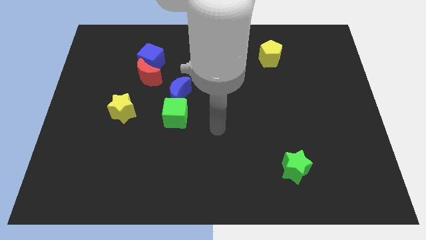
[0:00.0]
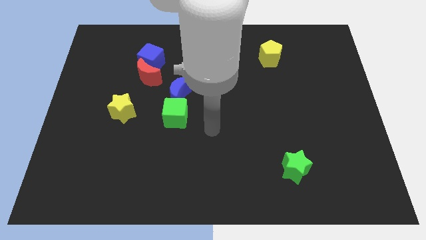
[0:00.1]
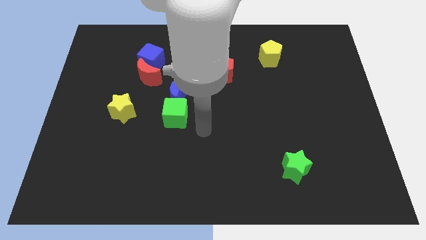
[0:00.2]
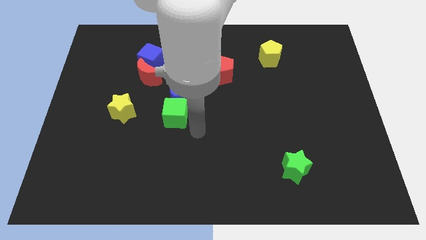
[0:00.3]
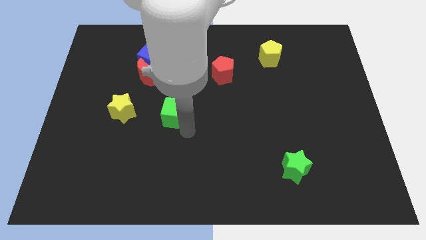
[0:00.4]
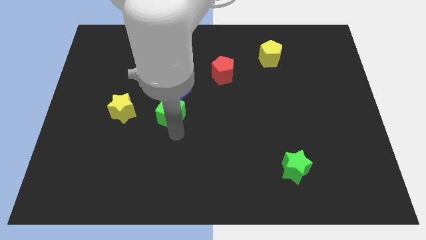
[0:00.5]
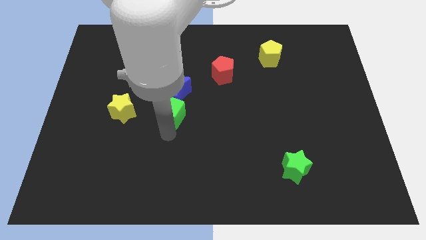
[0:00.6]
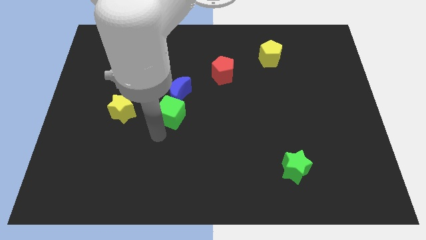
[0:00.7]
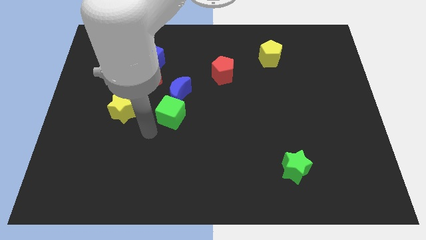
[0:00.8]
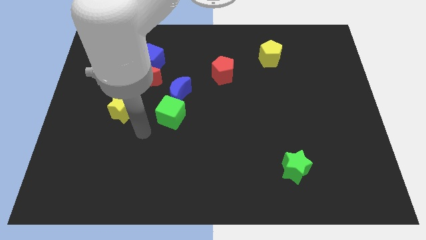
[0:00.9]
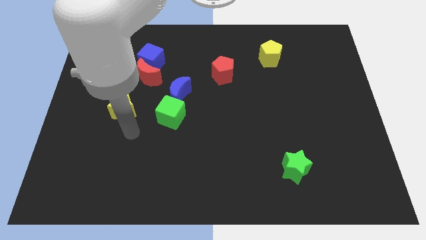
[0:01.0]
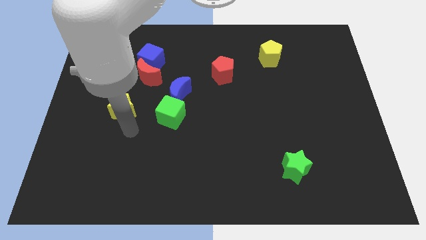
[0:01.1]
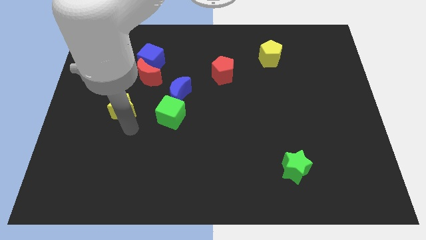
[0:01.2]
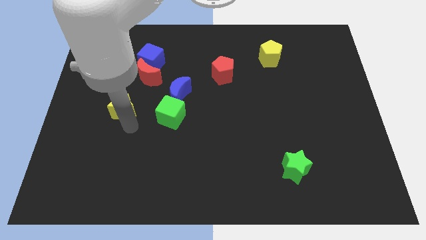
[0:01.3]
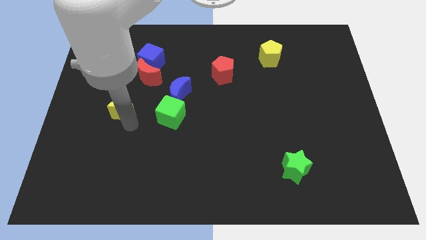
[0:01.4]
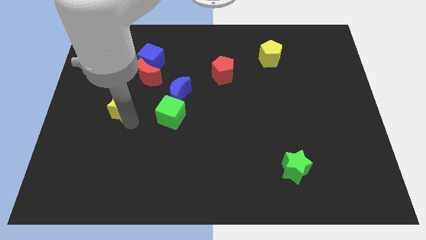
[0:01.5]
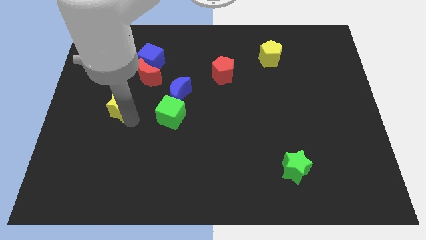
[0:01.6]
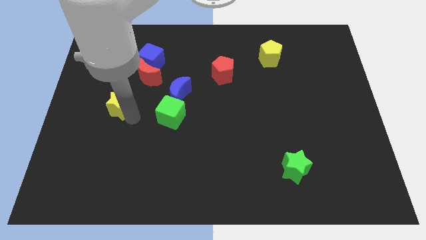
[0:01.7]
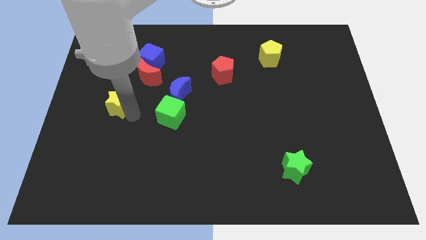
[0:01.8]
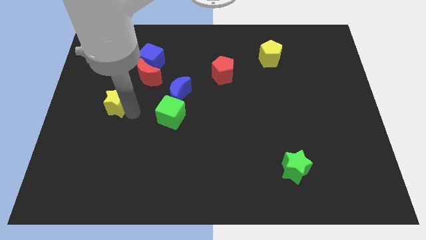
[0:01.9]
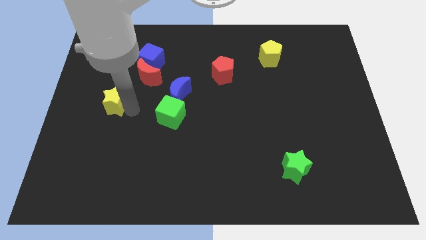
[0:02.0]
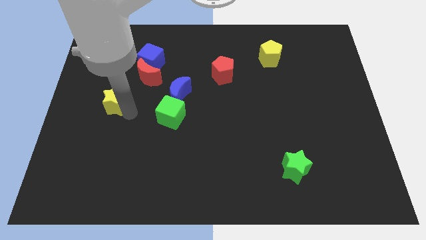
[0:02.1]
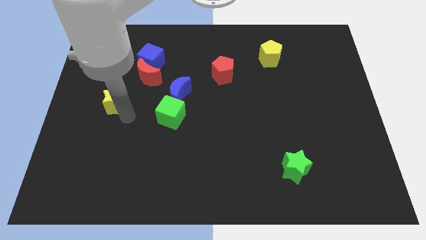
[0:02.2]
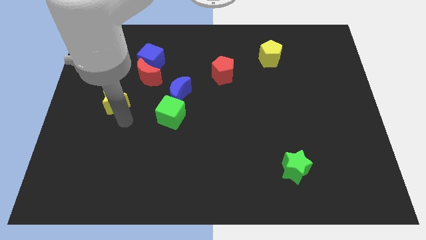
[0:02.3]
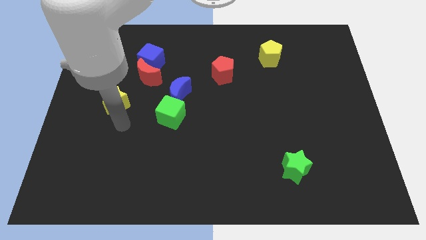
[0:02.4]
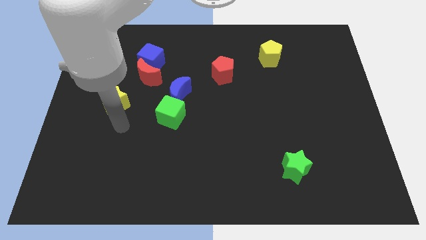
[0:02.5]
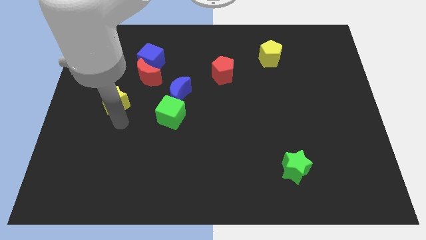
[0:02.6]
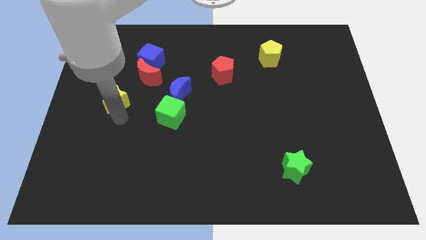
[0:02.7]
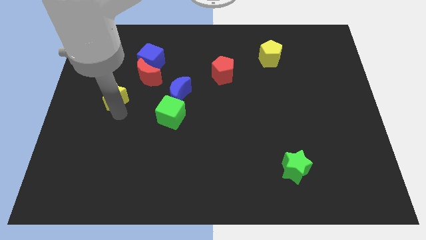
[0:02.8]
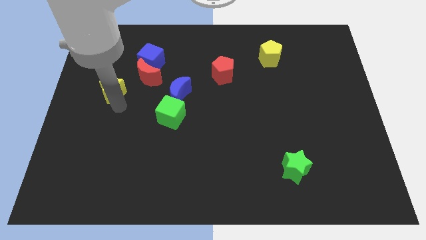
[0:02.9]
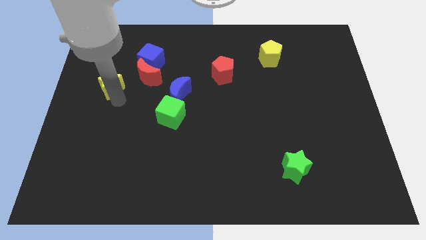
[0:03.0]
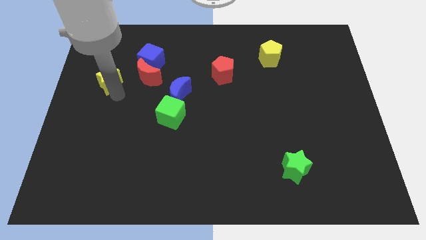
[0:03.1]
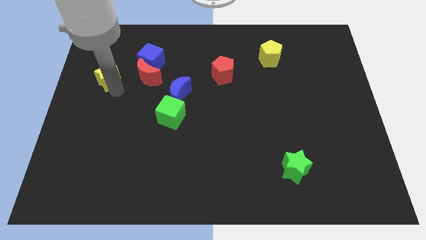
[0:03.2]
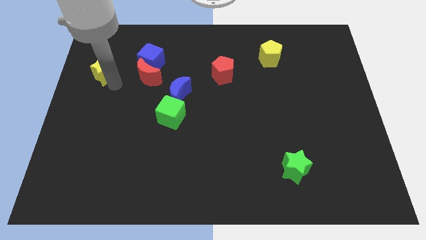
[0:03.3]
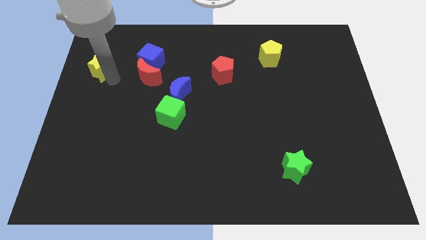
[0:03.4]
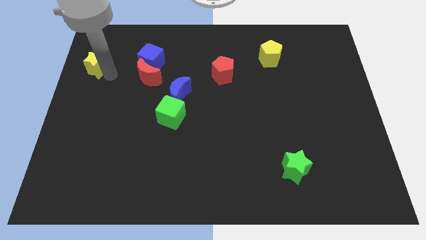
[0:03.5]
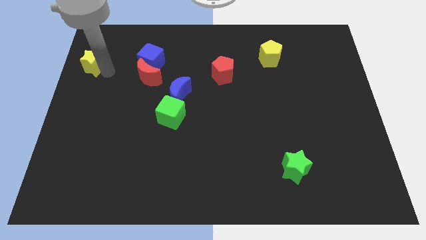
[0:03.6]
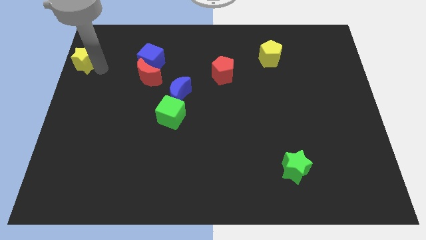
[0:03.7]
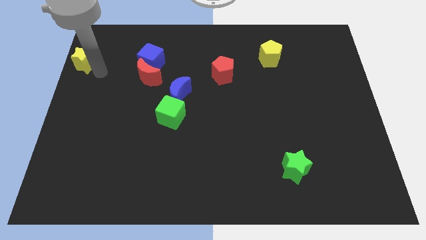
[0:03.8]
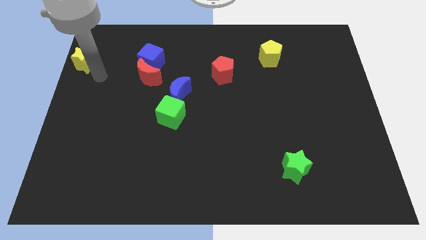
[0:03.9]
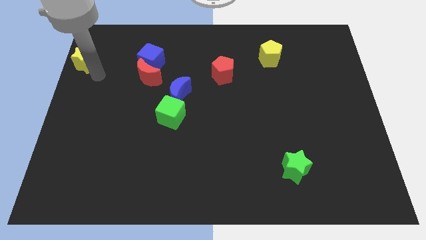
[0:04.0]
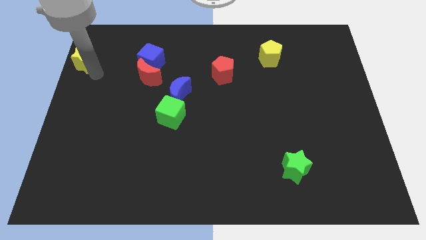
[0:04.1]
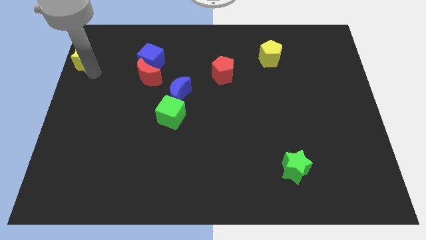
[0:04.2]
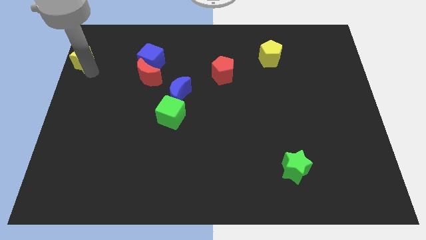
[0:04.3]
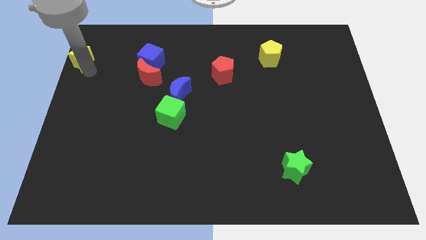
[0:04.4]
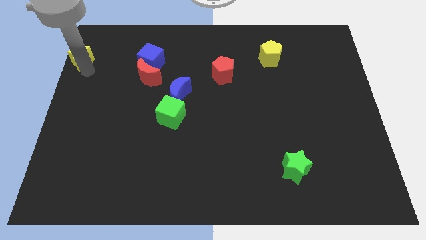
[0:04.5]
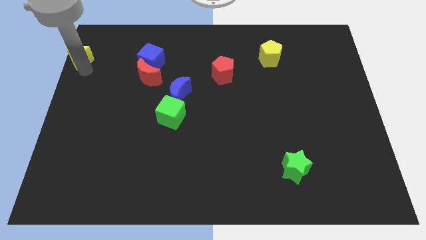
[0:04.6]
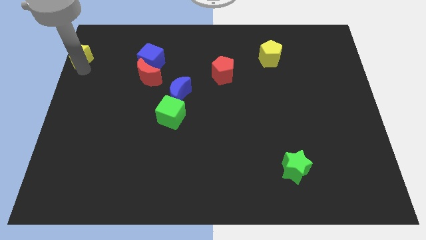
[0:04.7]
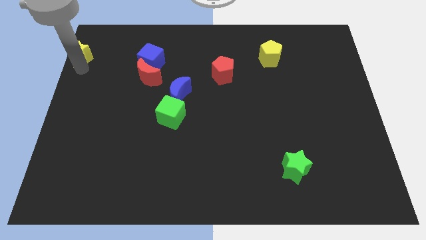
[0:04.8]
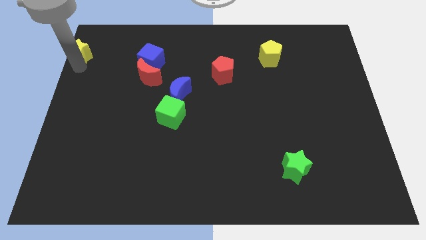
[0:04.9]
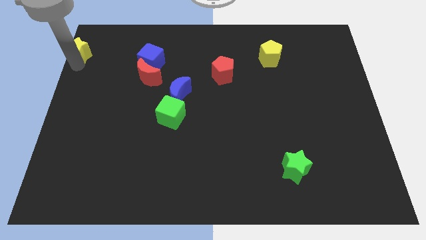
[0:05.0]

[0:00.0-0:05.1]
put the yellow star to the upper left corner

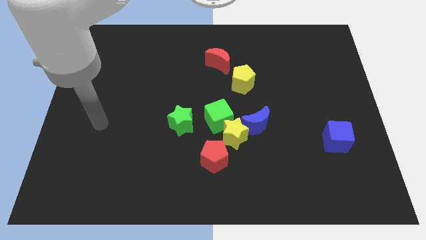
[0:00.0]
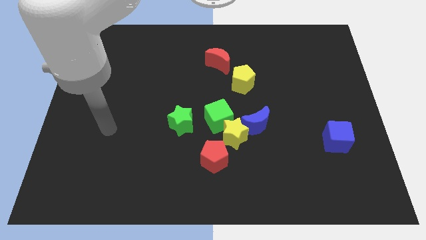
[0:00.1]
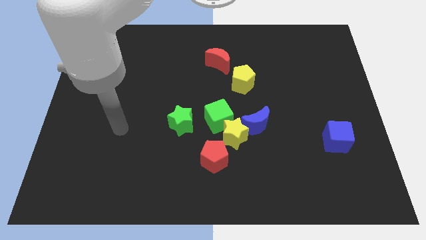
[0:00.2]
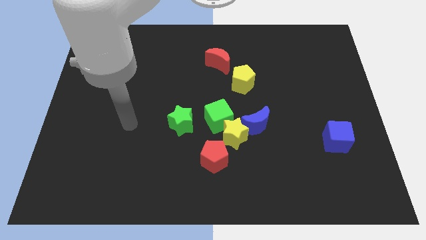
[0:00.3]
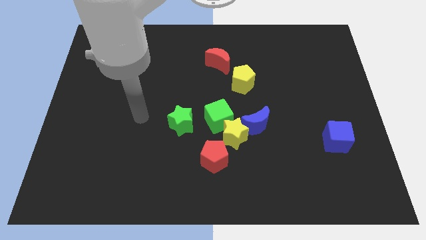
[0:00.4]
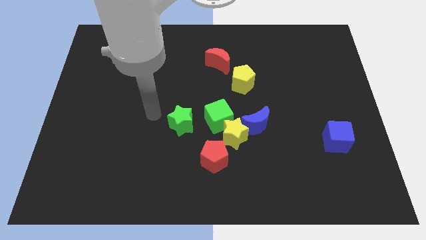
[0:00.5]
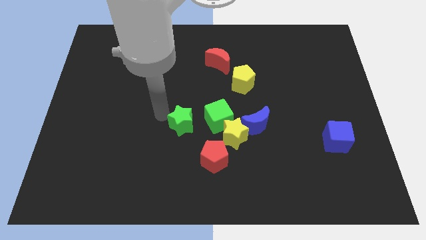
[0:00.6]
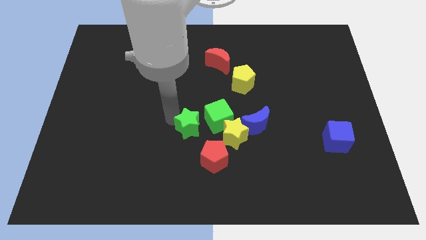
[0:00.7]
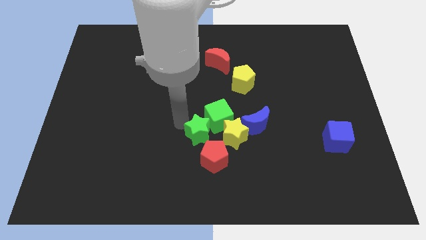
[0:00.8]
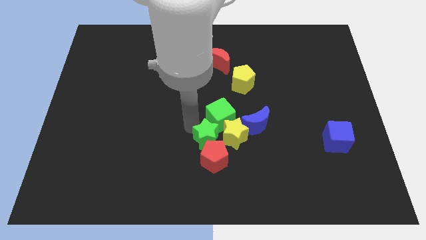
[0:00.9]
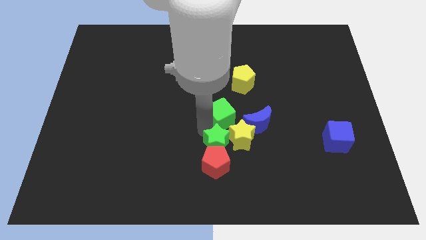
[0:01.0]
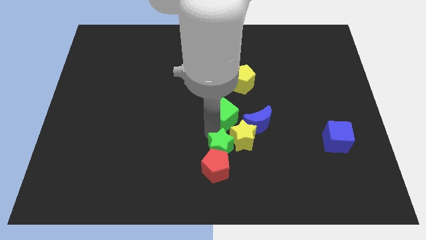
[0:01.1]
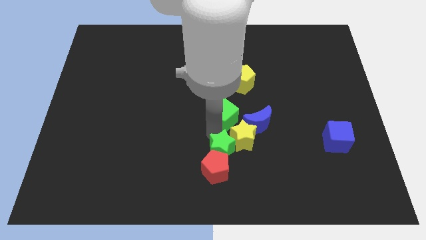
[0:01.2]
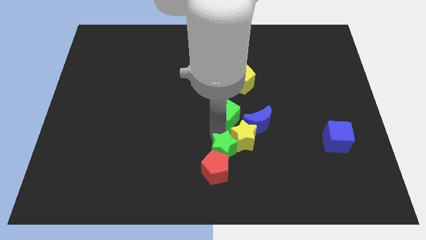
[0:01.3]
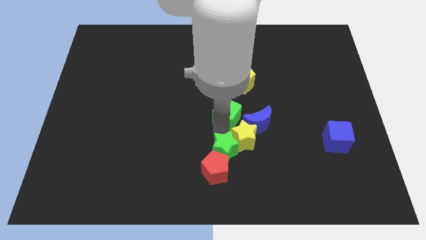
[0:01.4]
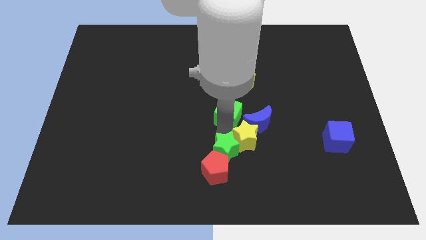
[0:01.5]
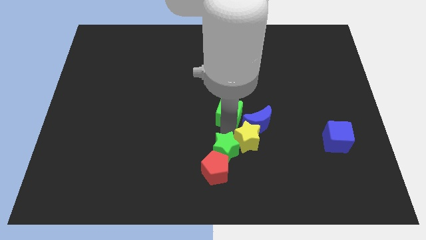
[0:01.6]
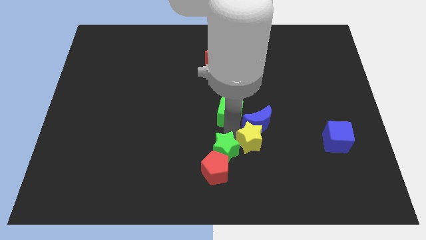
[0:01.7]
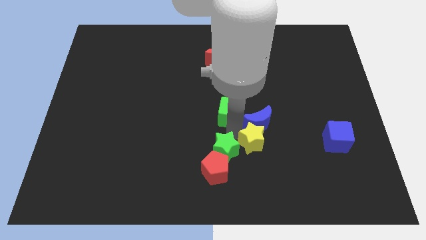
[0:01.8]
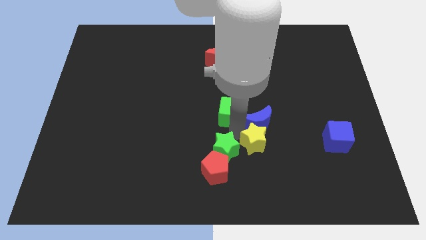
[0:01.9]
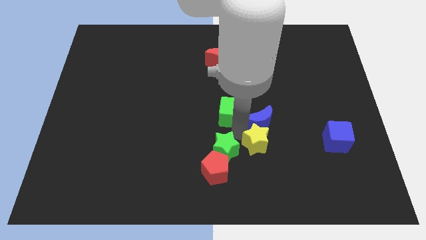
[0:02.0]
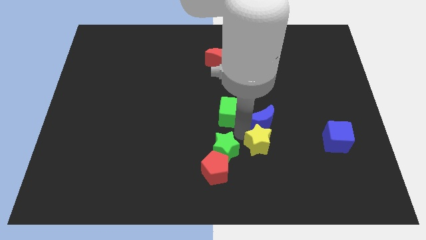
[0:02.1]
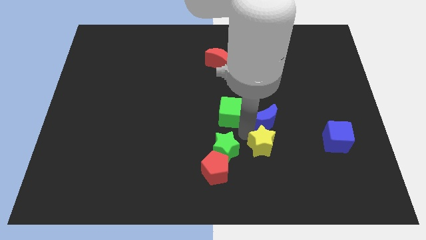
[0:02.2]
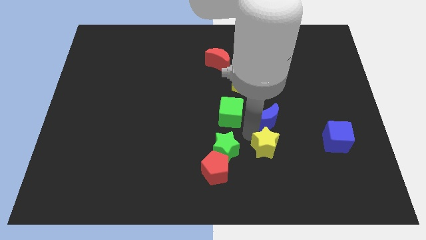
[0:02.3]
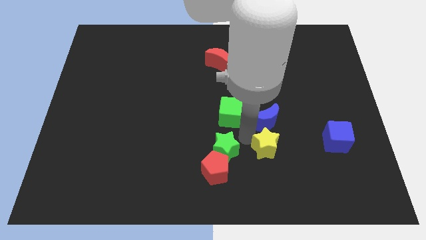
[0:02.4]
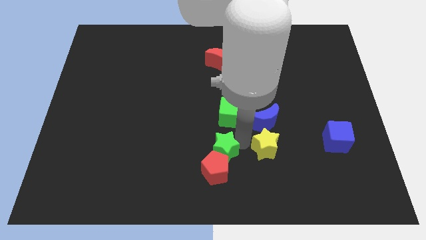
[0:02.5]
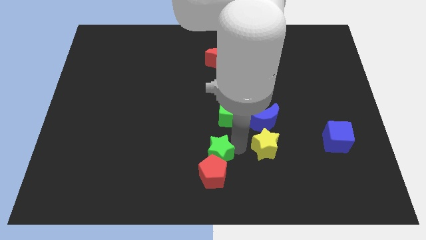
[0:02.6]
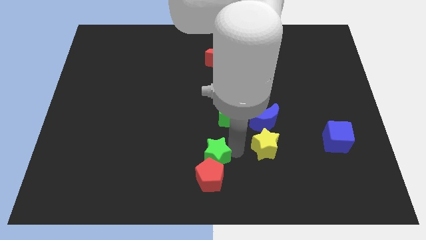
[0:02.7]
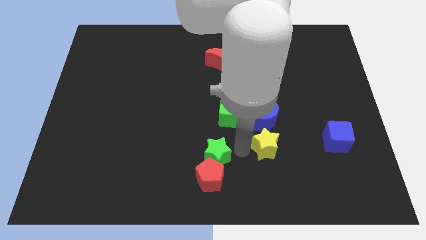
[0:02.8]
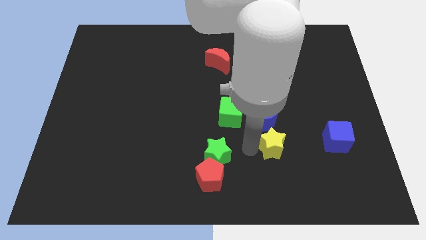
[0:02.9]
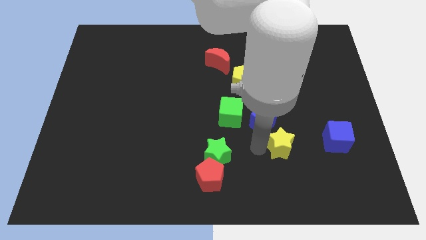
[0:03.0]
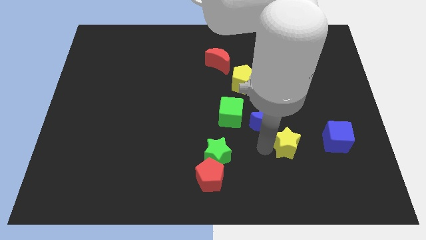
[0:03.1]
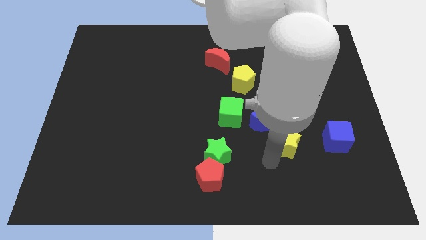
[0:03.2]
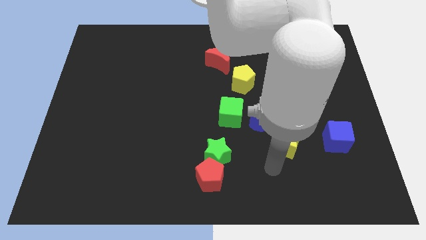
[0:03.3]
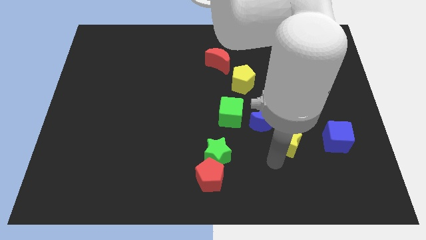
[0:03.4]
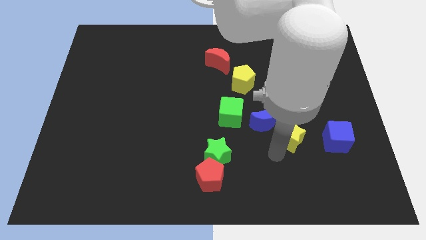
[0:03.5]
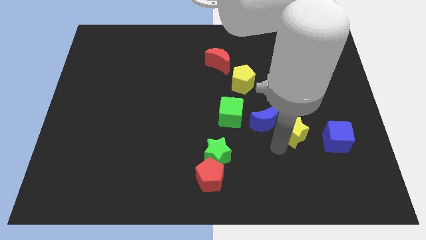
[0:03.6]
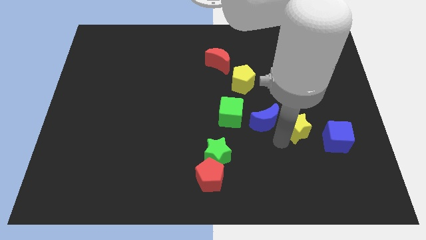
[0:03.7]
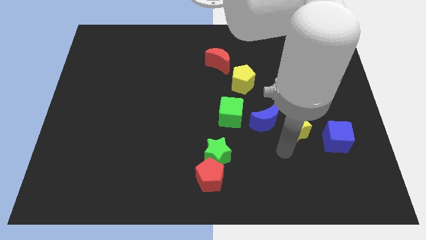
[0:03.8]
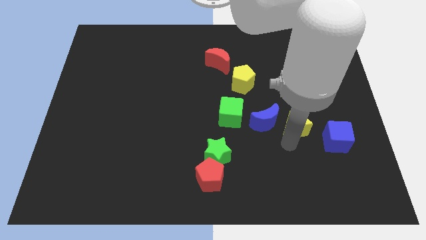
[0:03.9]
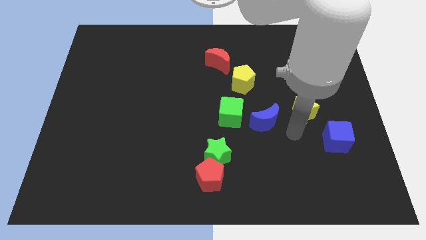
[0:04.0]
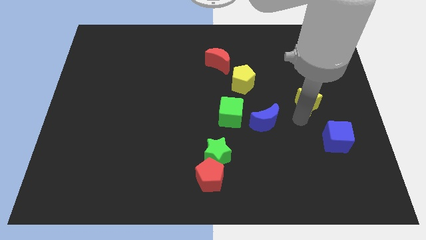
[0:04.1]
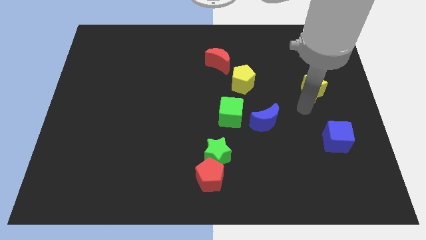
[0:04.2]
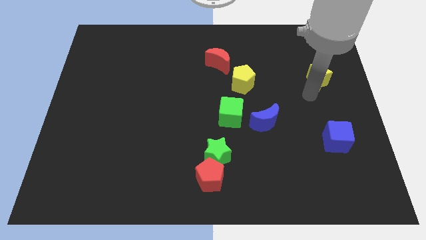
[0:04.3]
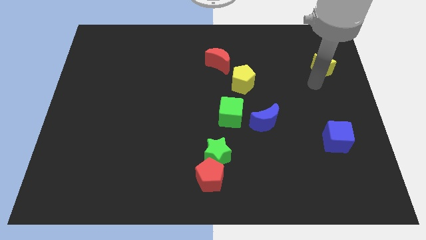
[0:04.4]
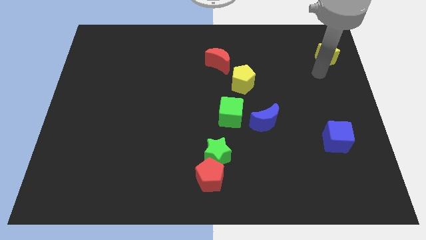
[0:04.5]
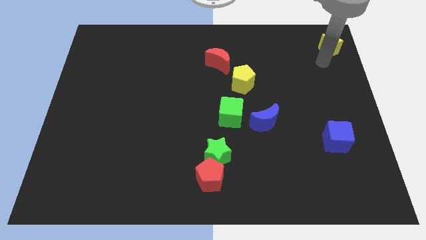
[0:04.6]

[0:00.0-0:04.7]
push the yellow star to the top right
